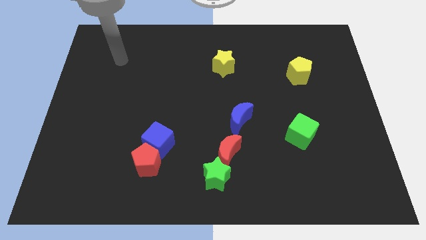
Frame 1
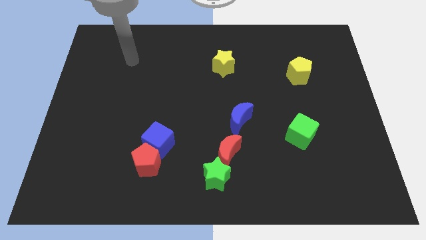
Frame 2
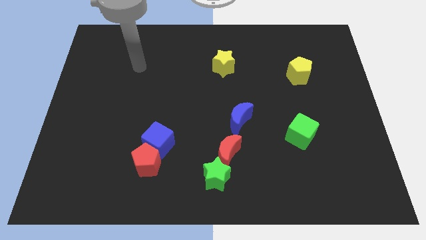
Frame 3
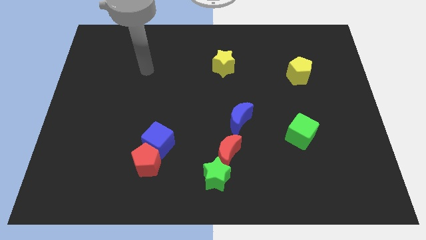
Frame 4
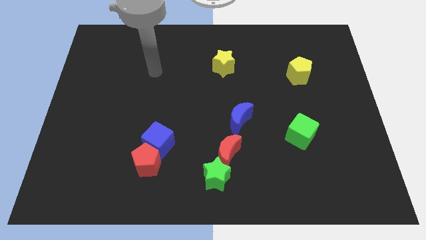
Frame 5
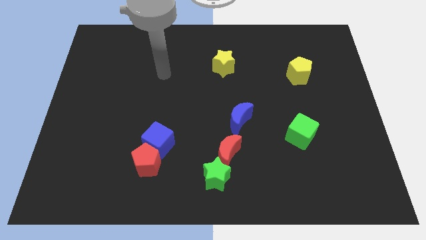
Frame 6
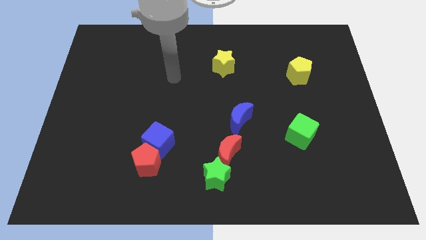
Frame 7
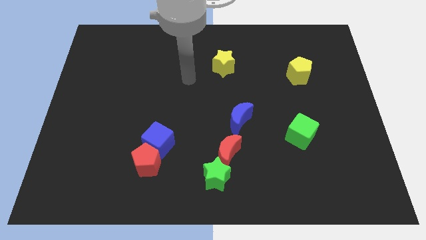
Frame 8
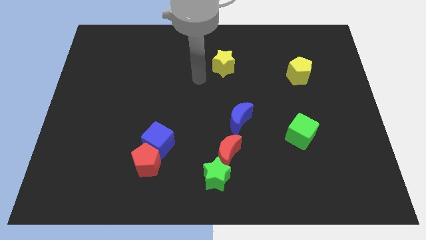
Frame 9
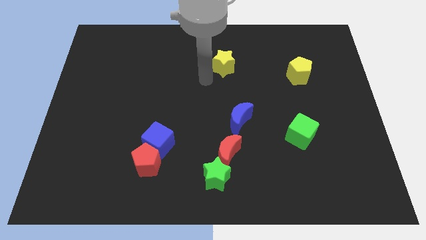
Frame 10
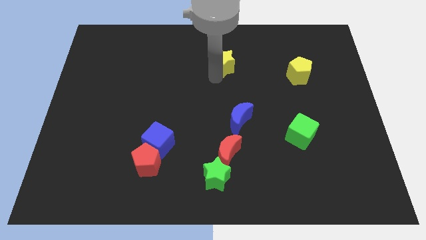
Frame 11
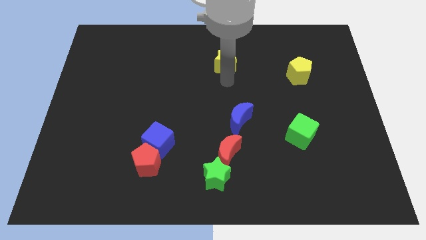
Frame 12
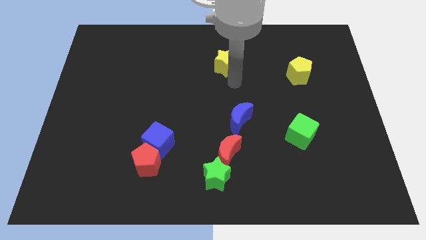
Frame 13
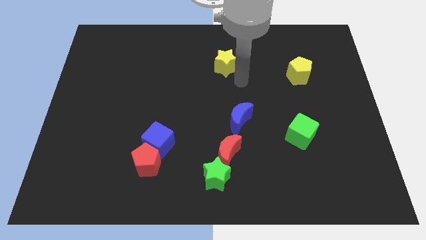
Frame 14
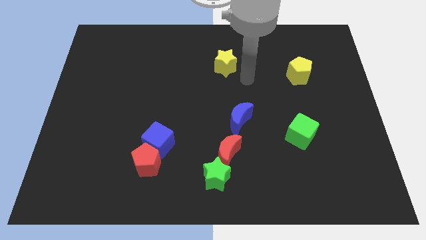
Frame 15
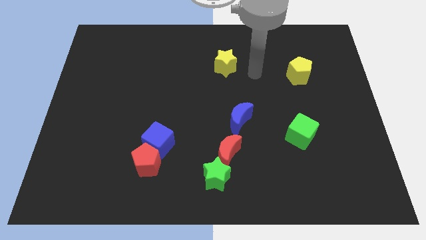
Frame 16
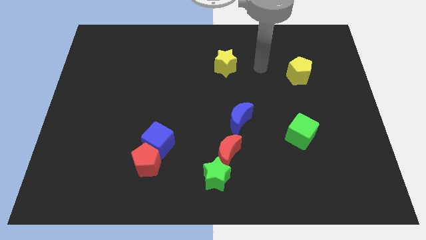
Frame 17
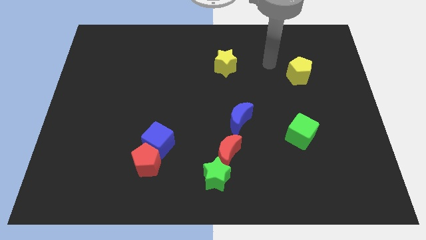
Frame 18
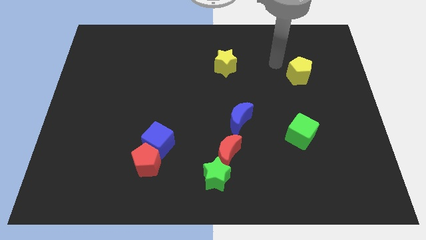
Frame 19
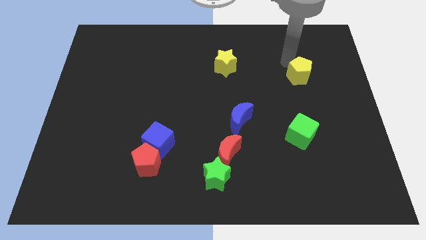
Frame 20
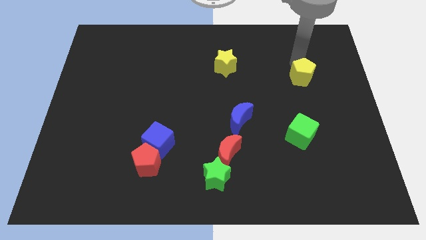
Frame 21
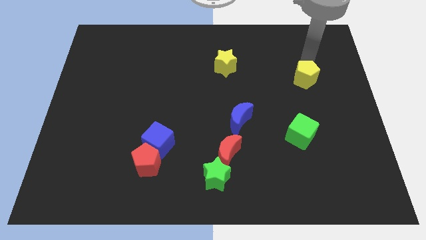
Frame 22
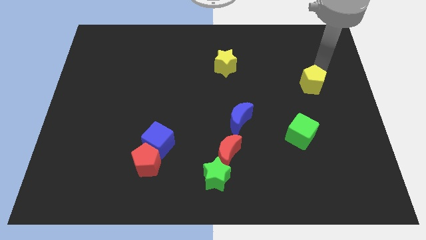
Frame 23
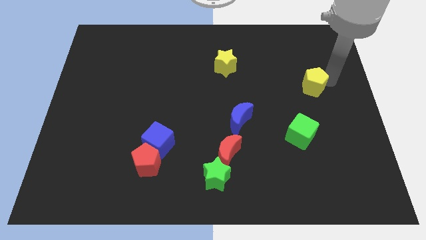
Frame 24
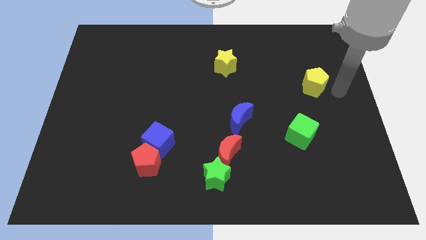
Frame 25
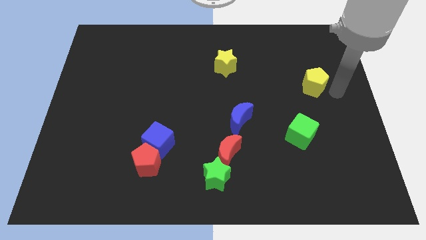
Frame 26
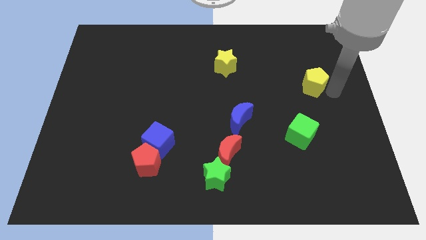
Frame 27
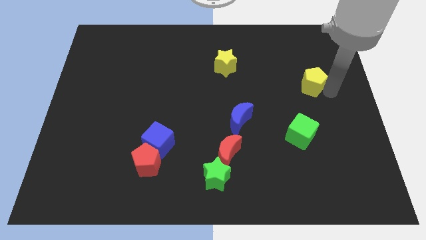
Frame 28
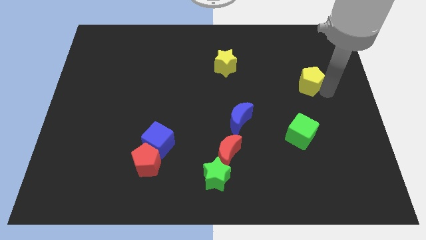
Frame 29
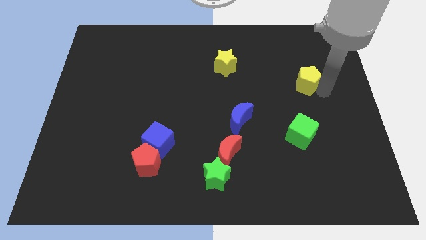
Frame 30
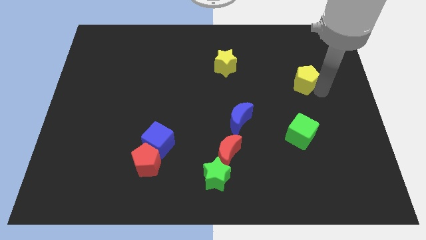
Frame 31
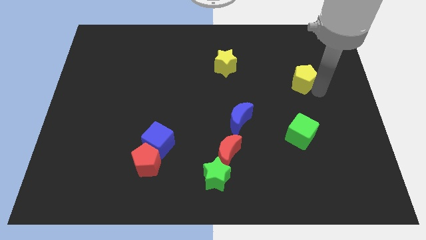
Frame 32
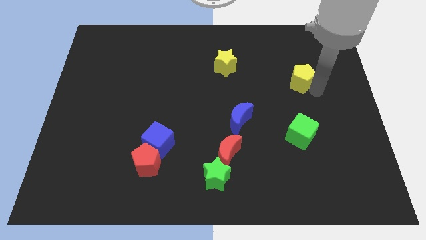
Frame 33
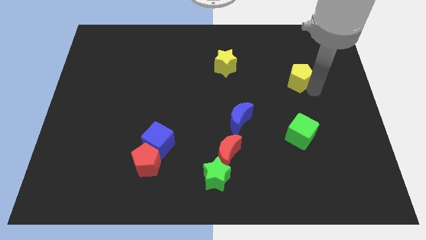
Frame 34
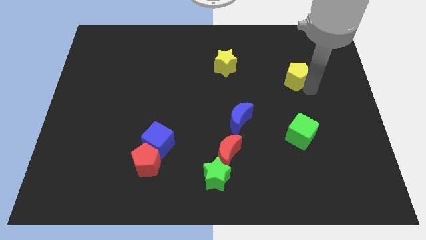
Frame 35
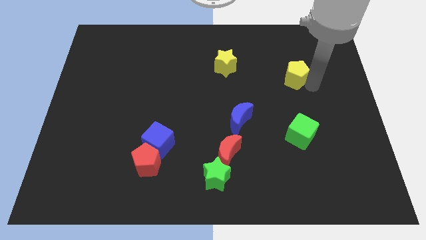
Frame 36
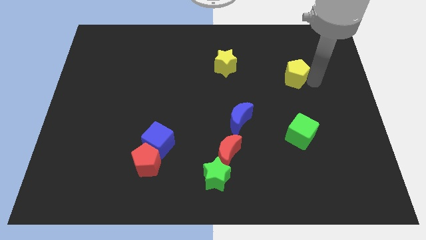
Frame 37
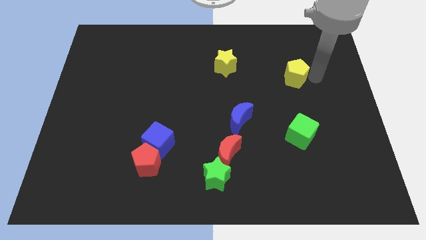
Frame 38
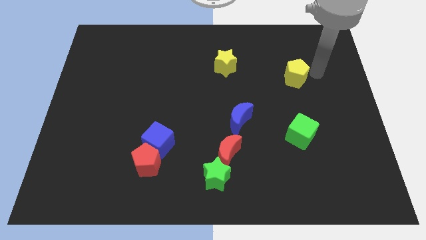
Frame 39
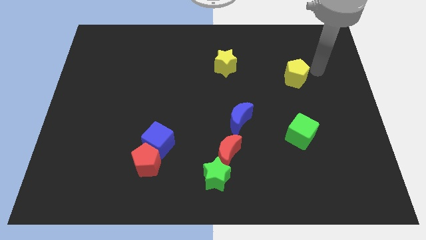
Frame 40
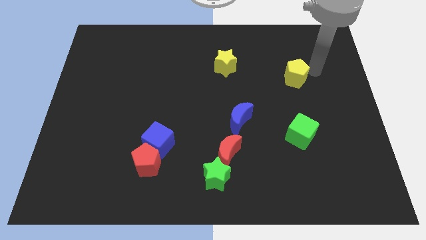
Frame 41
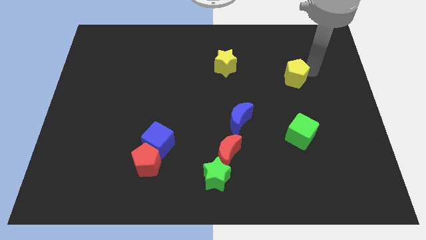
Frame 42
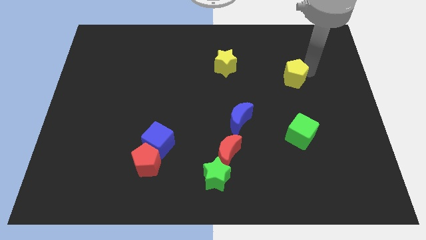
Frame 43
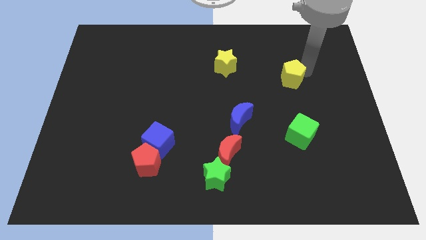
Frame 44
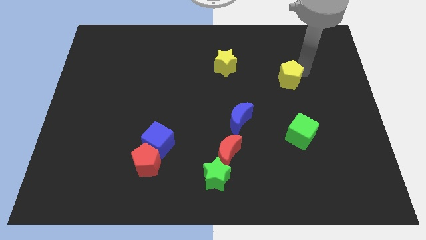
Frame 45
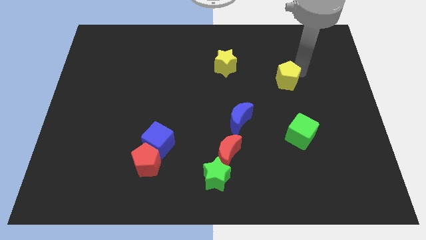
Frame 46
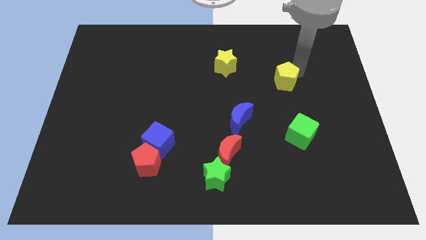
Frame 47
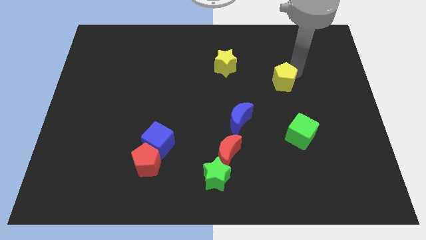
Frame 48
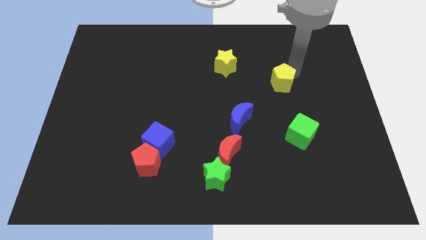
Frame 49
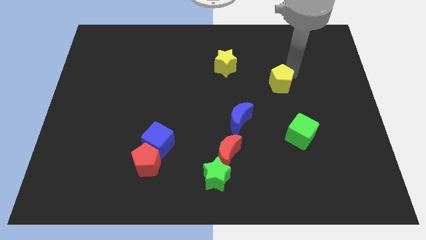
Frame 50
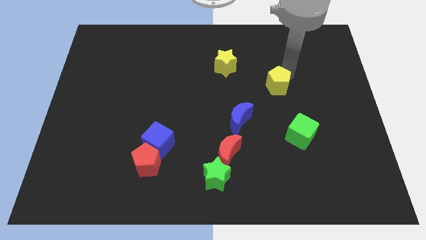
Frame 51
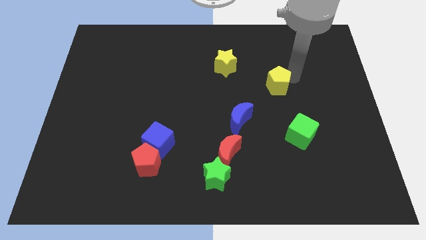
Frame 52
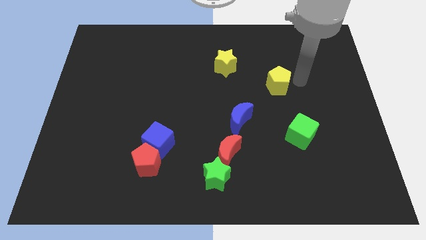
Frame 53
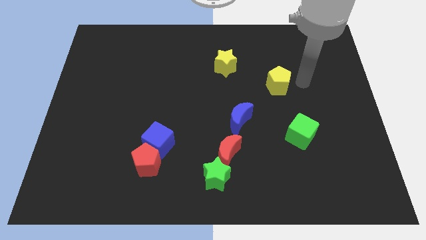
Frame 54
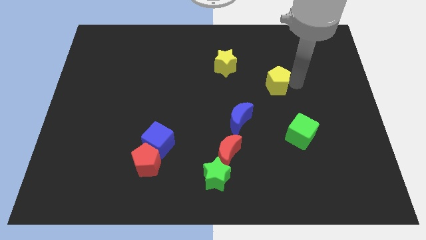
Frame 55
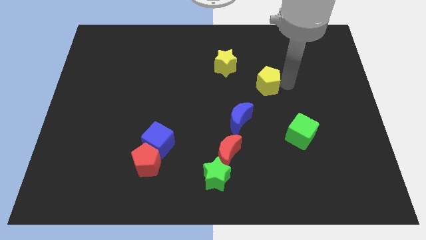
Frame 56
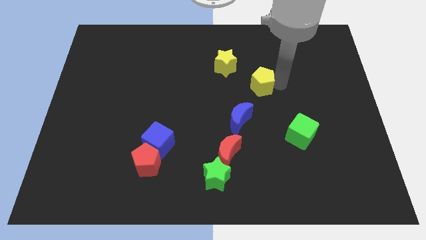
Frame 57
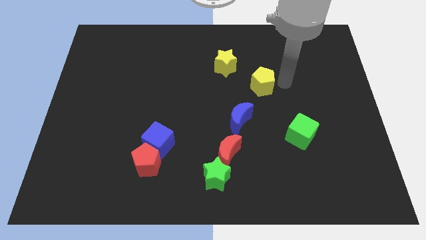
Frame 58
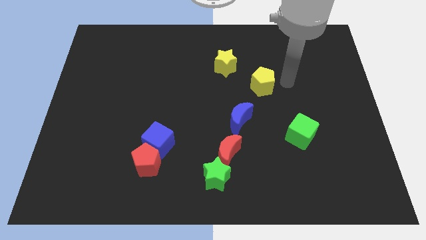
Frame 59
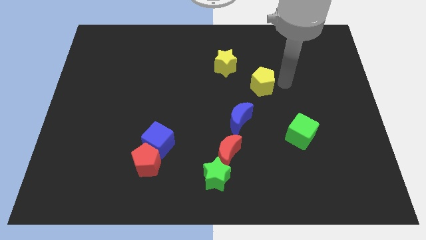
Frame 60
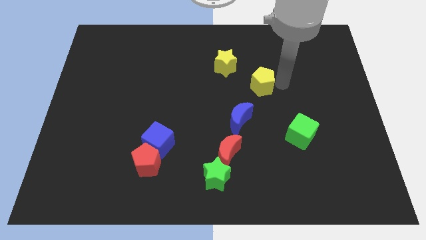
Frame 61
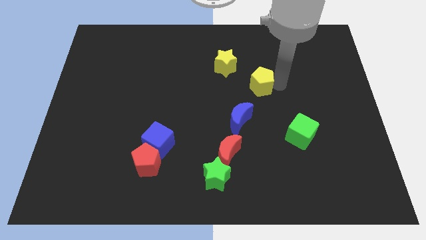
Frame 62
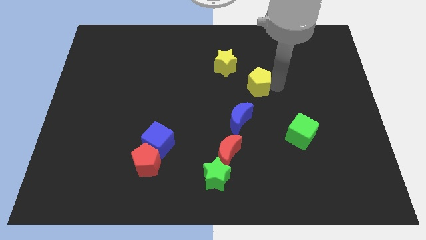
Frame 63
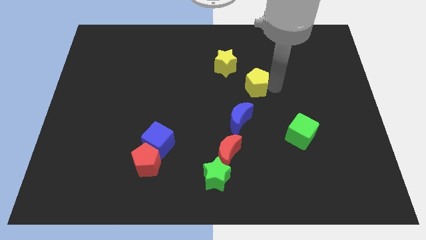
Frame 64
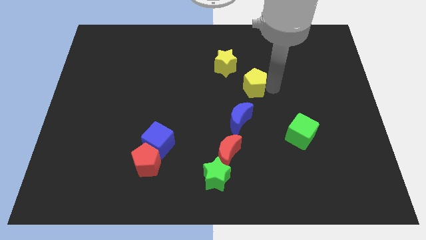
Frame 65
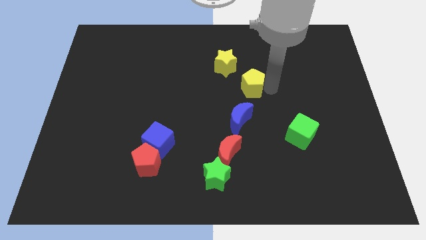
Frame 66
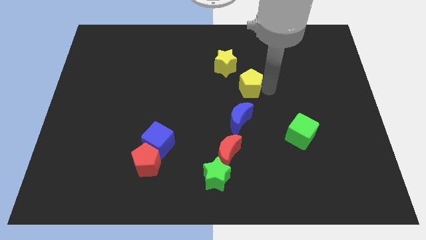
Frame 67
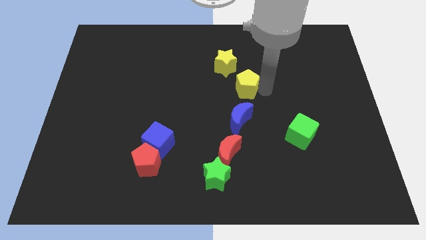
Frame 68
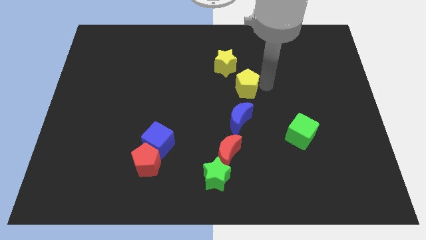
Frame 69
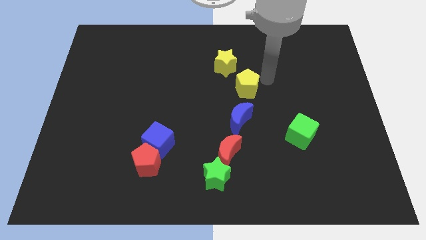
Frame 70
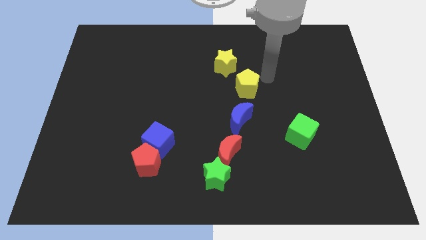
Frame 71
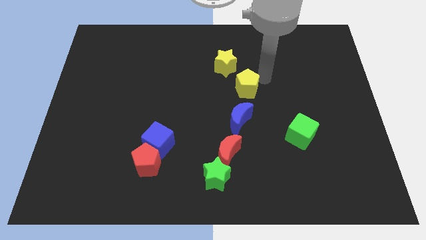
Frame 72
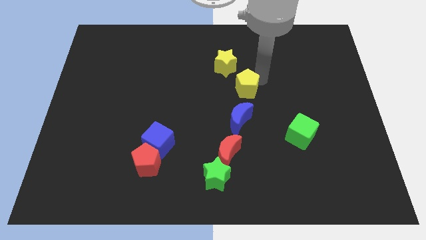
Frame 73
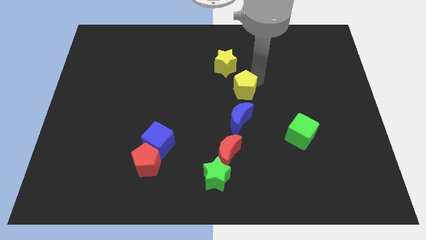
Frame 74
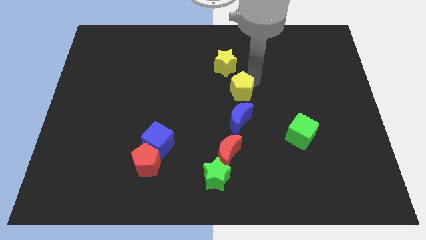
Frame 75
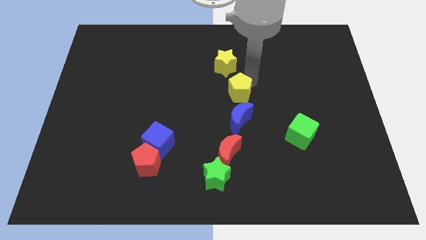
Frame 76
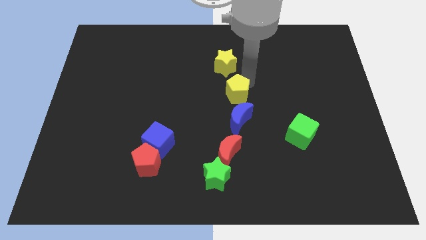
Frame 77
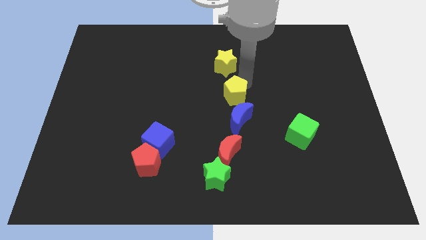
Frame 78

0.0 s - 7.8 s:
put the yellow pentagon to the top left of the blue moon

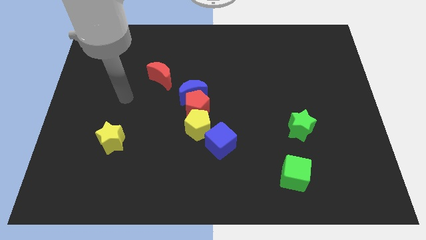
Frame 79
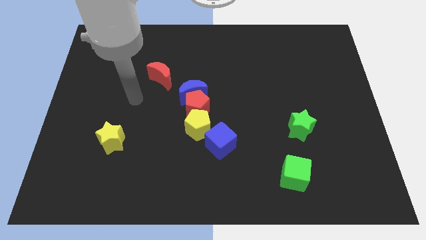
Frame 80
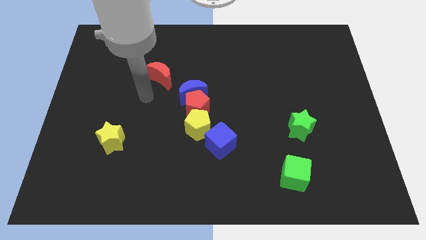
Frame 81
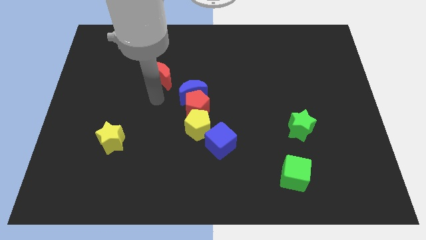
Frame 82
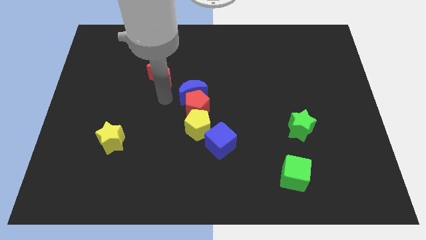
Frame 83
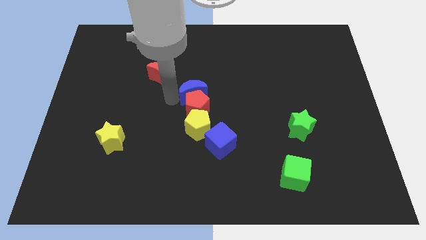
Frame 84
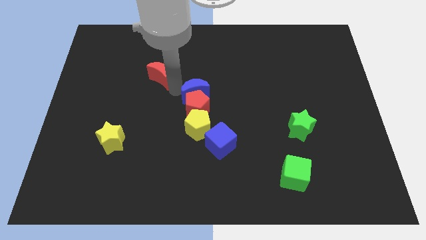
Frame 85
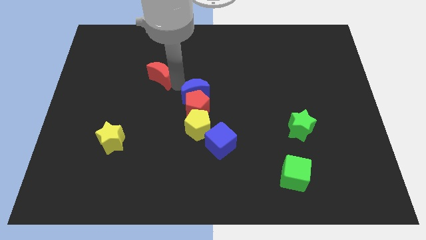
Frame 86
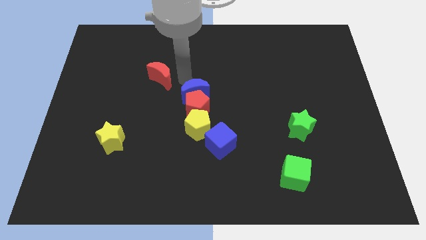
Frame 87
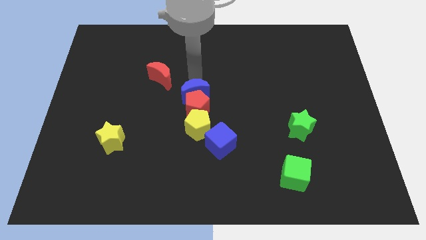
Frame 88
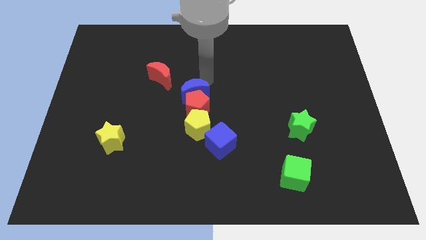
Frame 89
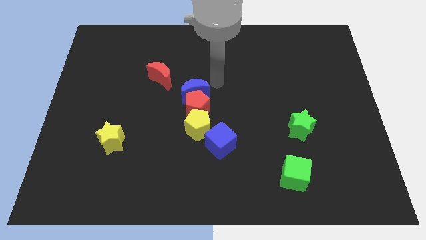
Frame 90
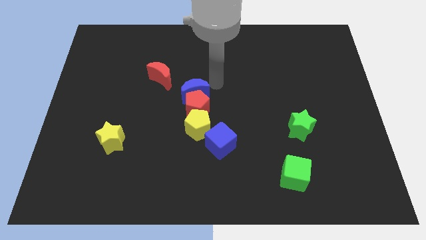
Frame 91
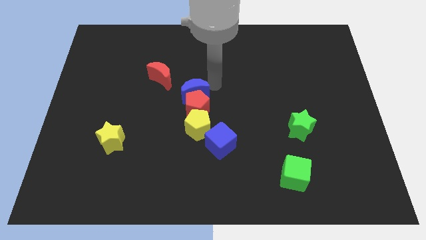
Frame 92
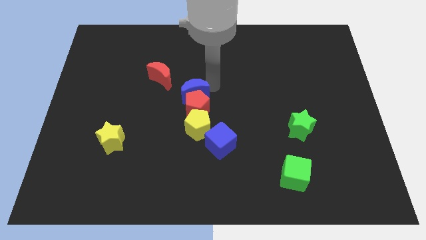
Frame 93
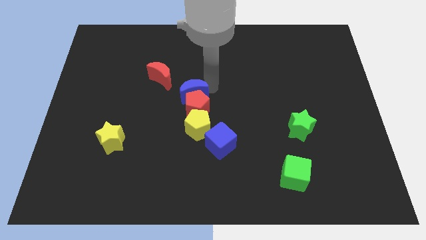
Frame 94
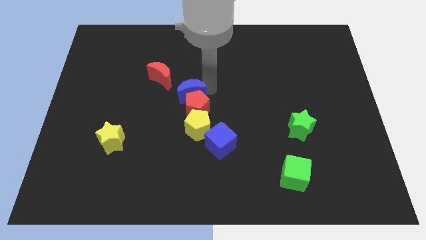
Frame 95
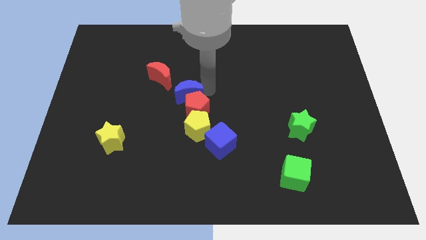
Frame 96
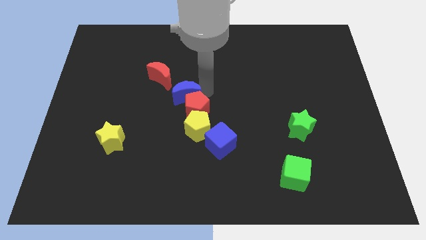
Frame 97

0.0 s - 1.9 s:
put the blue moon just left of the red pentagon
